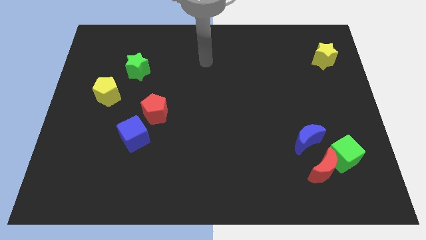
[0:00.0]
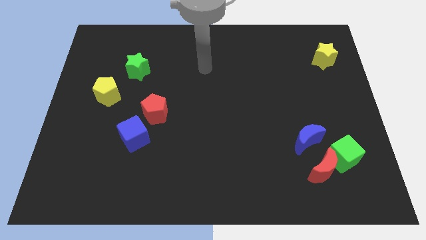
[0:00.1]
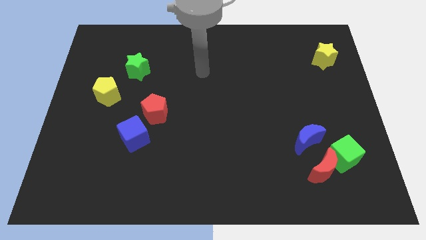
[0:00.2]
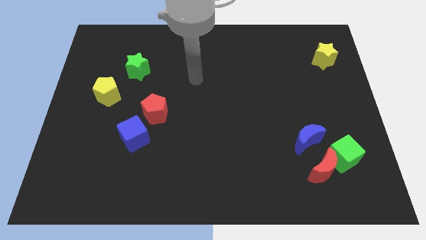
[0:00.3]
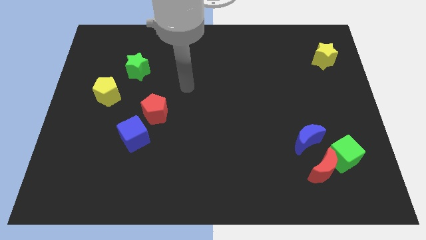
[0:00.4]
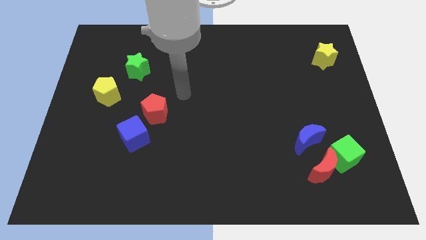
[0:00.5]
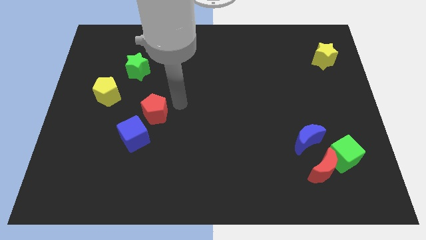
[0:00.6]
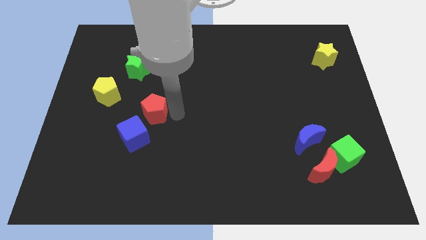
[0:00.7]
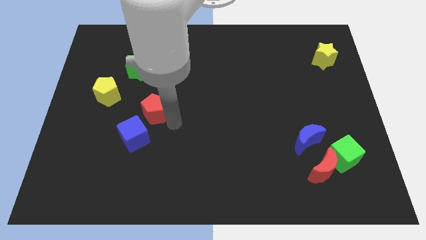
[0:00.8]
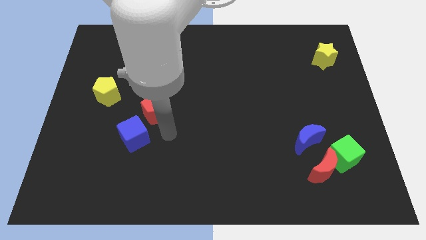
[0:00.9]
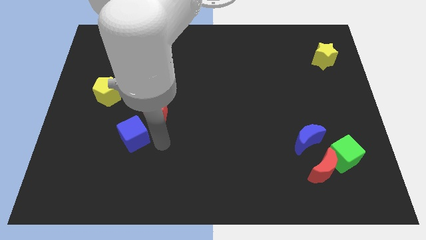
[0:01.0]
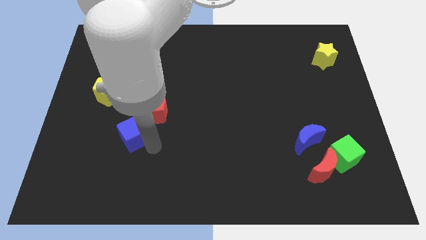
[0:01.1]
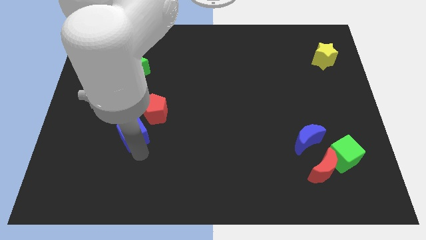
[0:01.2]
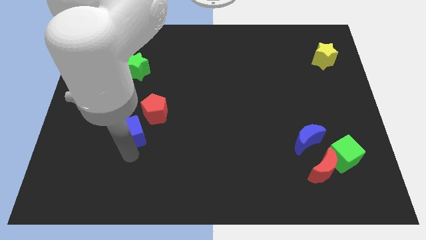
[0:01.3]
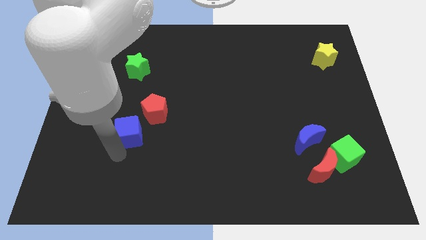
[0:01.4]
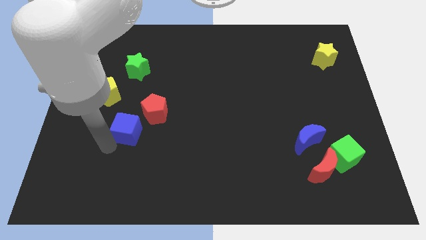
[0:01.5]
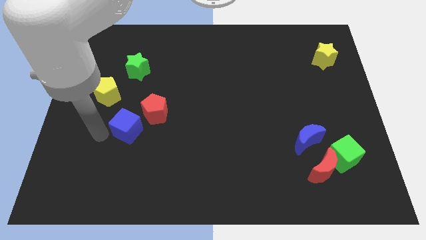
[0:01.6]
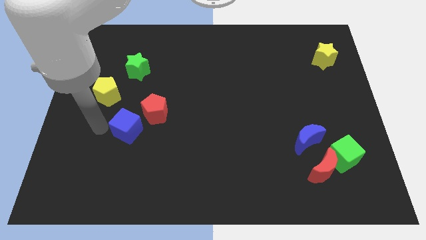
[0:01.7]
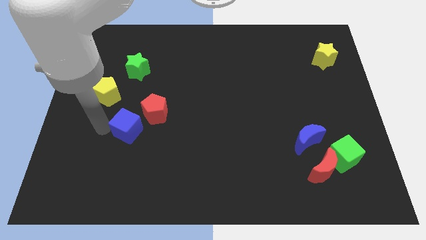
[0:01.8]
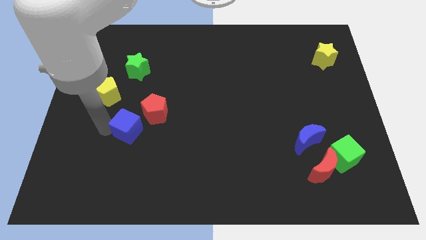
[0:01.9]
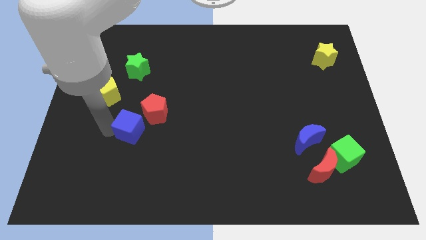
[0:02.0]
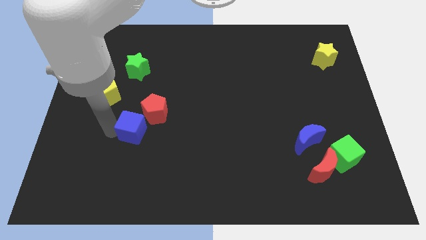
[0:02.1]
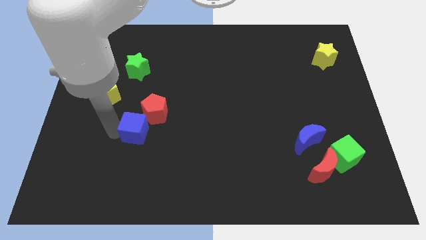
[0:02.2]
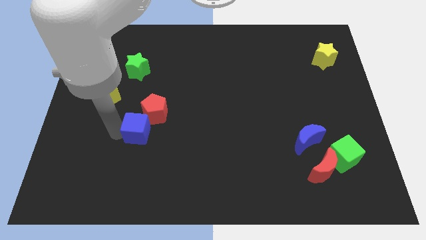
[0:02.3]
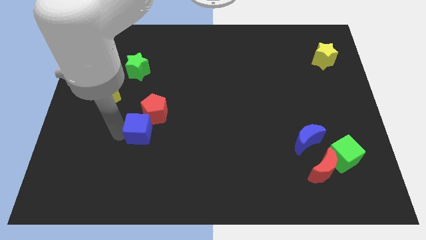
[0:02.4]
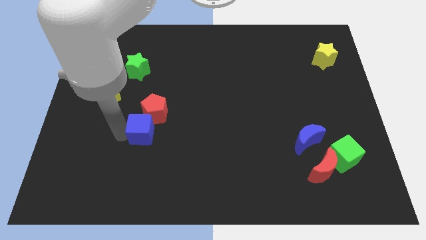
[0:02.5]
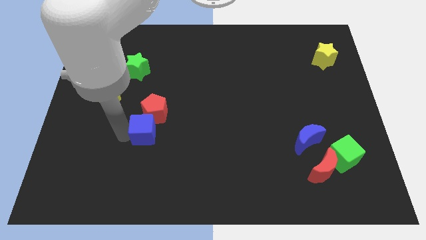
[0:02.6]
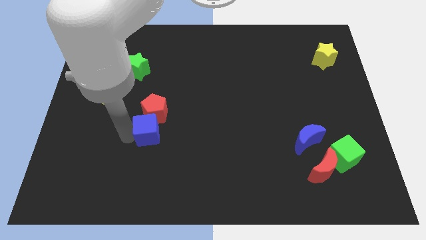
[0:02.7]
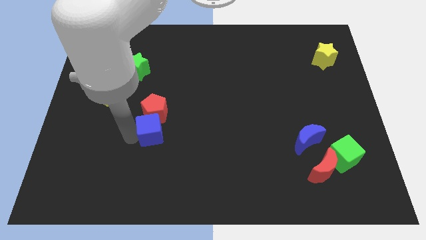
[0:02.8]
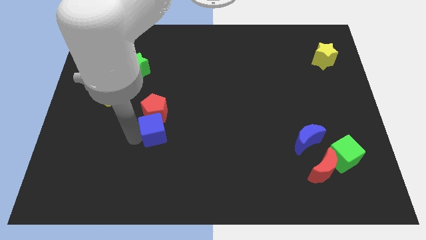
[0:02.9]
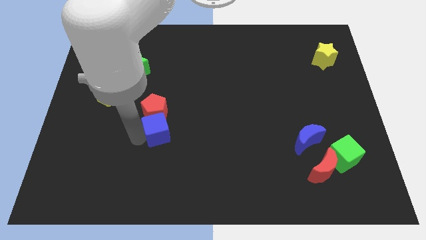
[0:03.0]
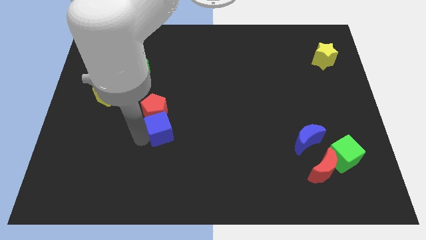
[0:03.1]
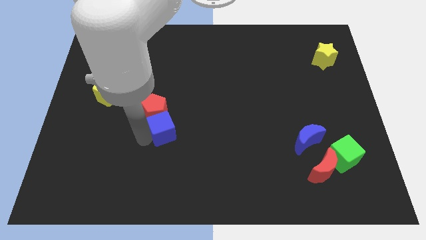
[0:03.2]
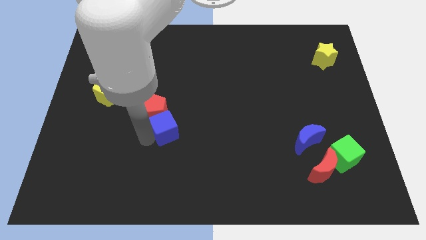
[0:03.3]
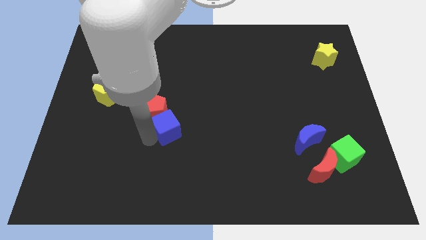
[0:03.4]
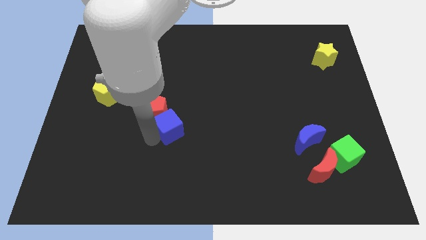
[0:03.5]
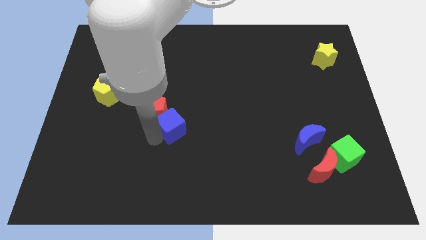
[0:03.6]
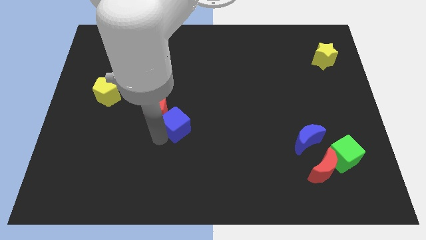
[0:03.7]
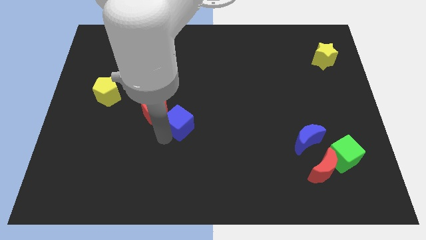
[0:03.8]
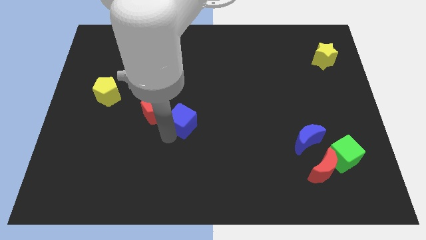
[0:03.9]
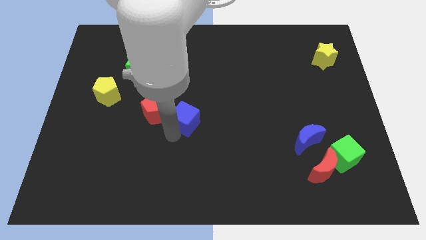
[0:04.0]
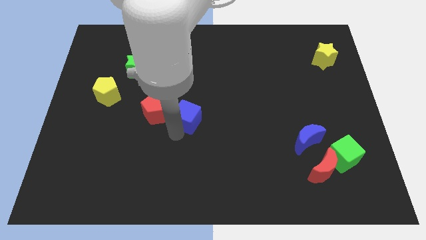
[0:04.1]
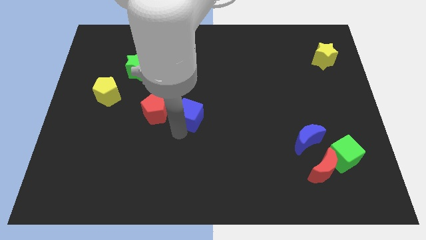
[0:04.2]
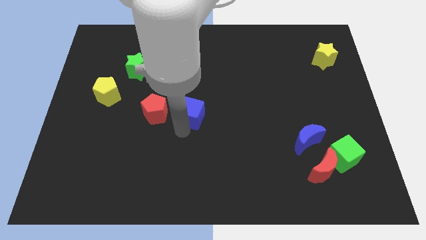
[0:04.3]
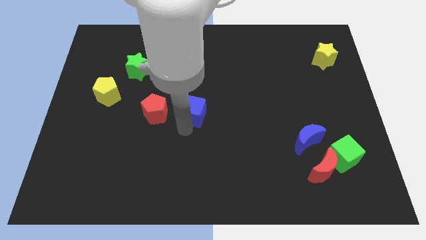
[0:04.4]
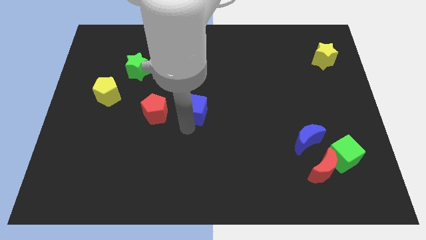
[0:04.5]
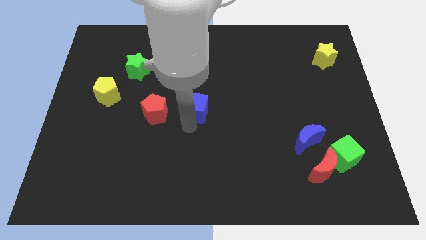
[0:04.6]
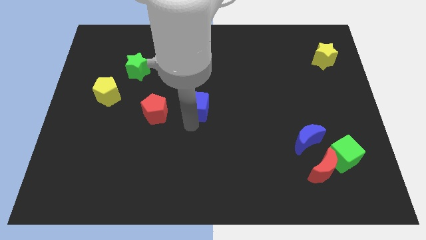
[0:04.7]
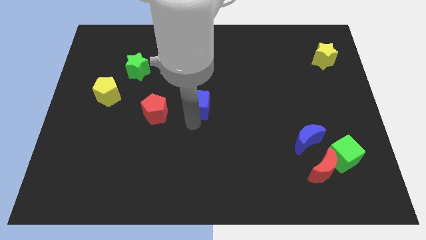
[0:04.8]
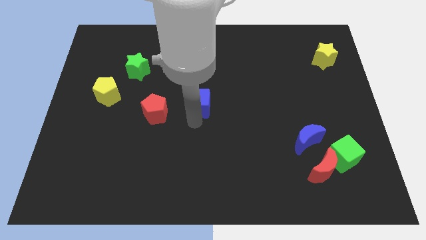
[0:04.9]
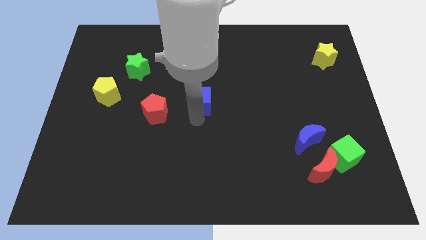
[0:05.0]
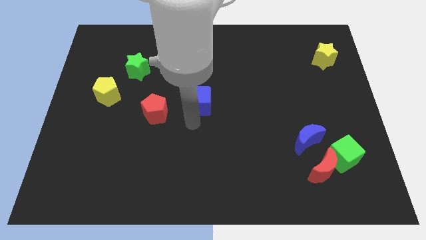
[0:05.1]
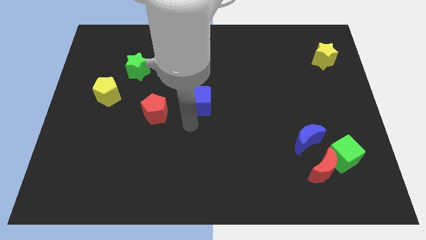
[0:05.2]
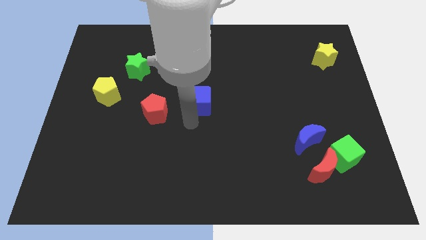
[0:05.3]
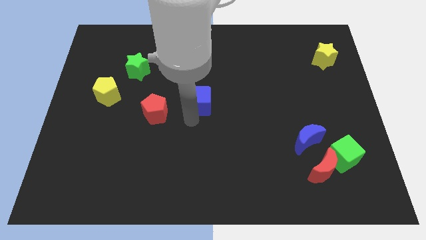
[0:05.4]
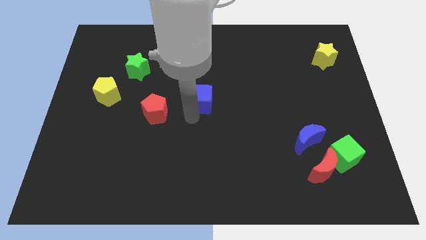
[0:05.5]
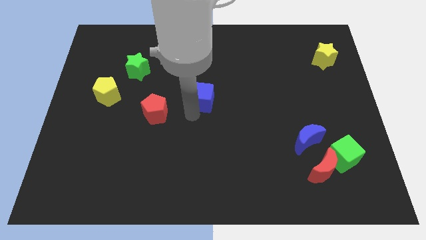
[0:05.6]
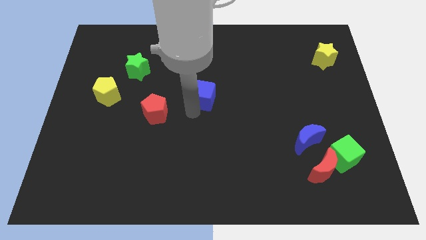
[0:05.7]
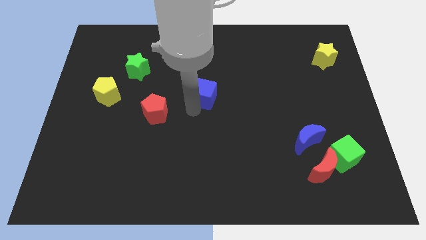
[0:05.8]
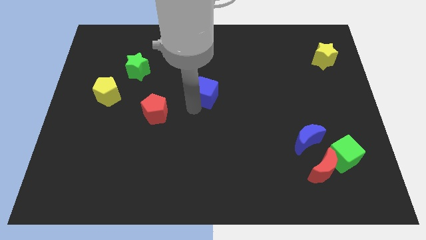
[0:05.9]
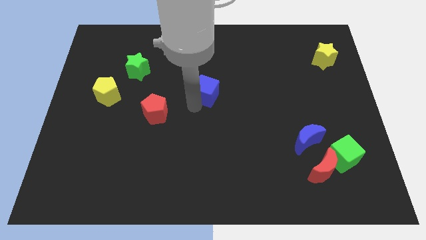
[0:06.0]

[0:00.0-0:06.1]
push the blue cube upwards and then to the right

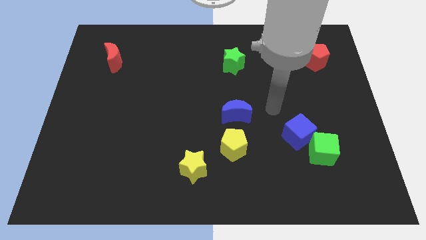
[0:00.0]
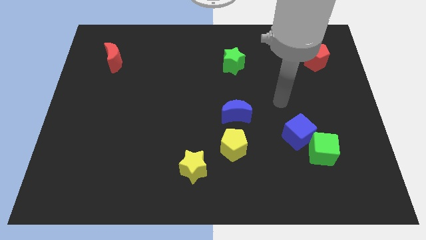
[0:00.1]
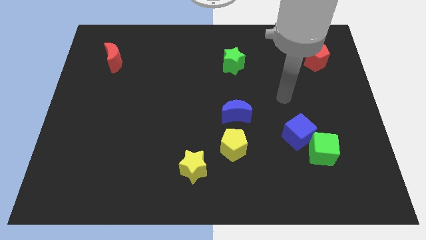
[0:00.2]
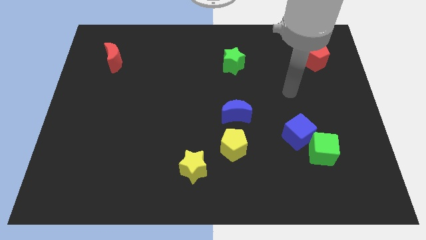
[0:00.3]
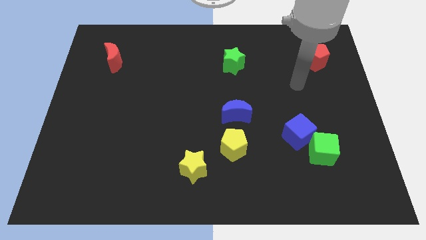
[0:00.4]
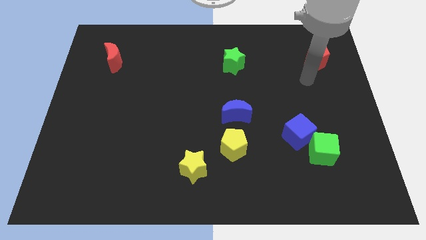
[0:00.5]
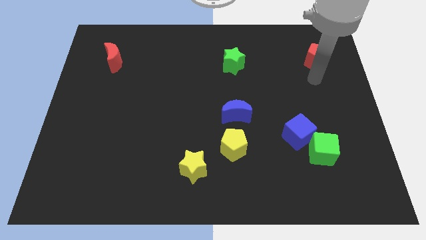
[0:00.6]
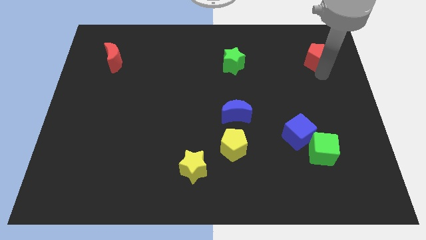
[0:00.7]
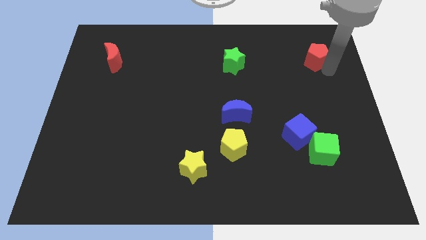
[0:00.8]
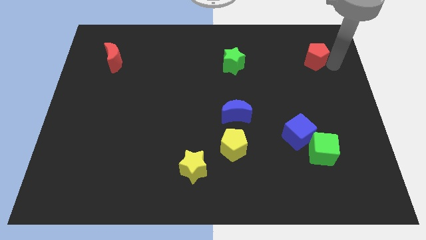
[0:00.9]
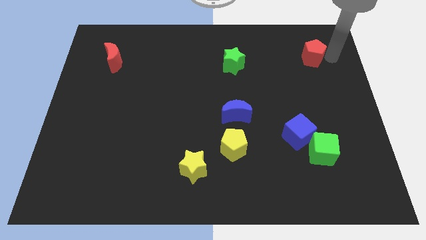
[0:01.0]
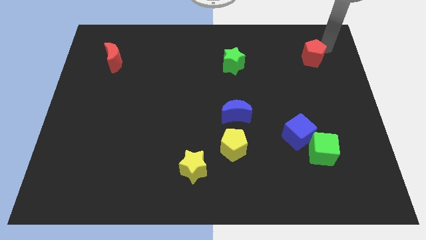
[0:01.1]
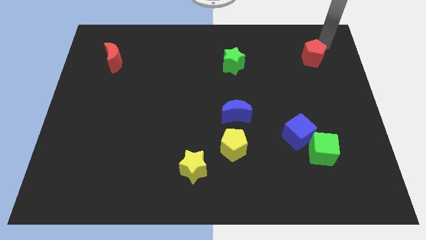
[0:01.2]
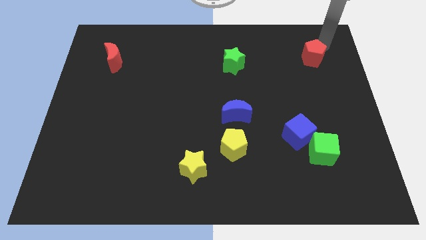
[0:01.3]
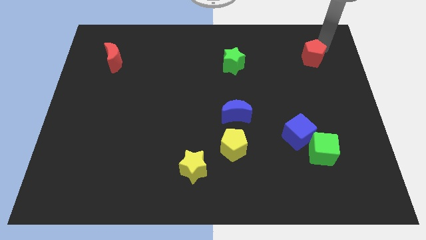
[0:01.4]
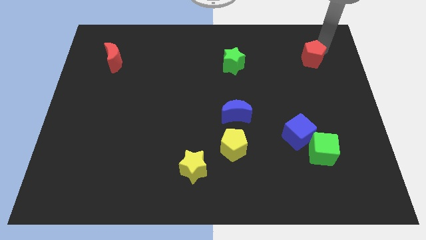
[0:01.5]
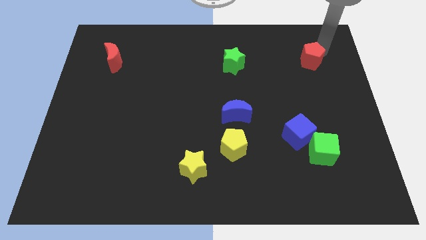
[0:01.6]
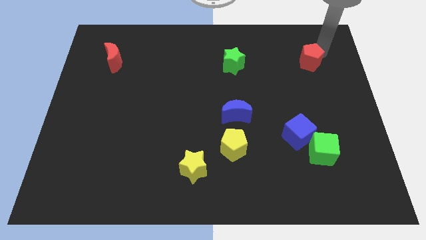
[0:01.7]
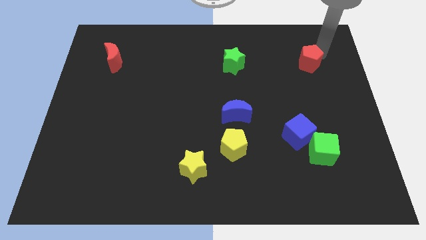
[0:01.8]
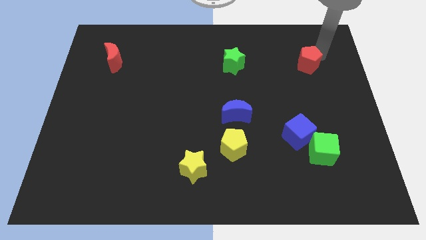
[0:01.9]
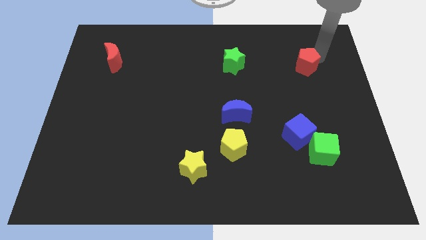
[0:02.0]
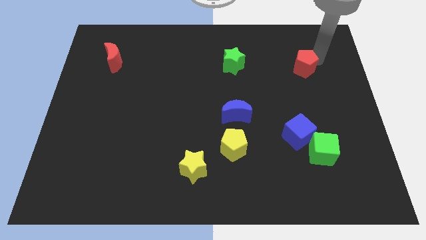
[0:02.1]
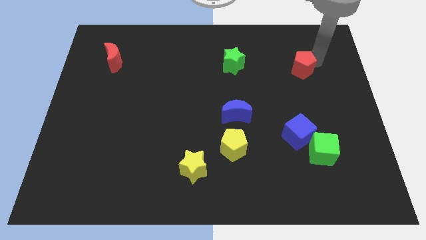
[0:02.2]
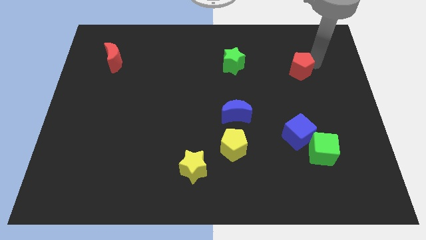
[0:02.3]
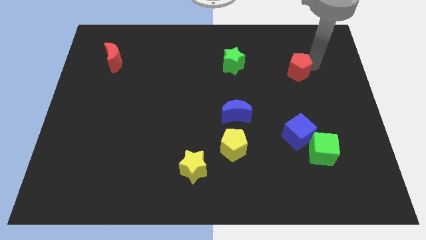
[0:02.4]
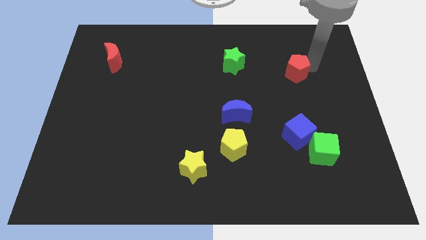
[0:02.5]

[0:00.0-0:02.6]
slide the red pentagon downwards and left diagonally somewhat
